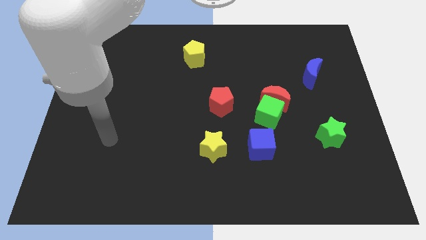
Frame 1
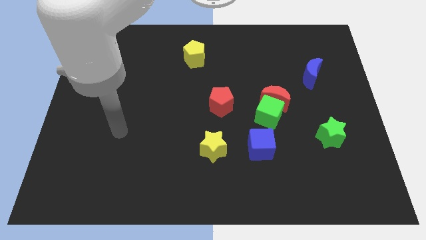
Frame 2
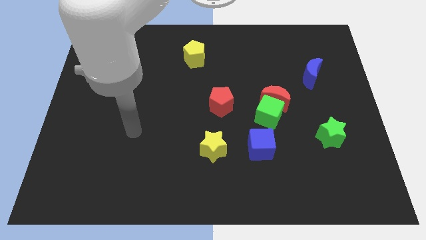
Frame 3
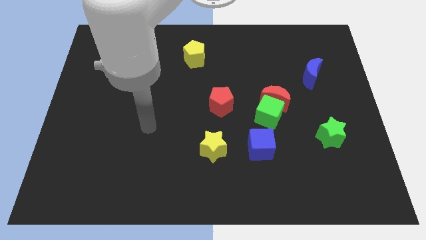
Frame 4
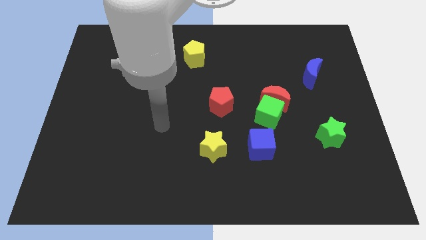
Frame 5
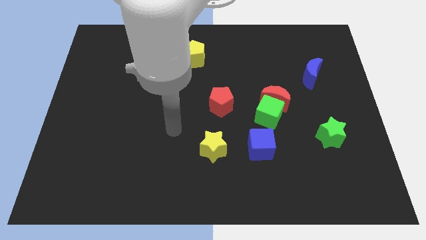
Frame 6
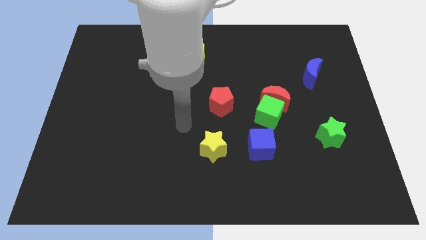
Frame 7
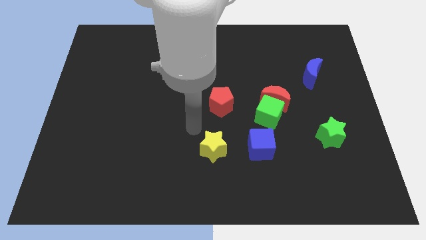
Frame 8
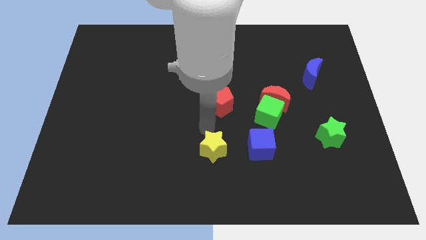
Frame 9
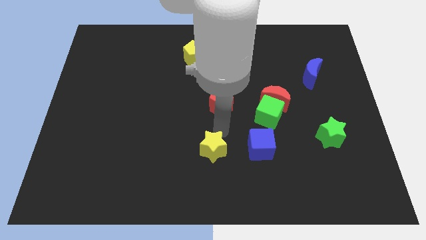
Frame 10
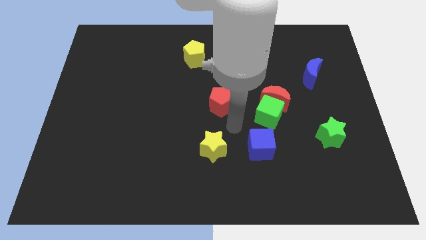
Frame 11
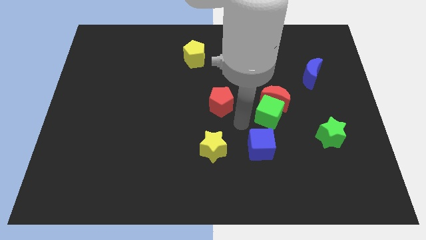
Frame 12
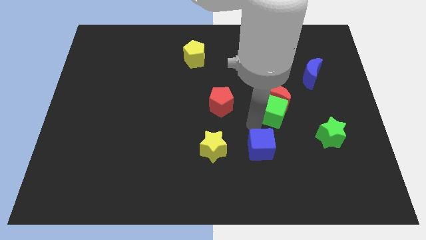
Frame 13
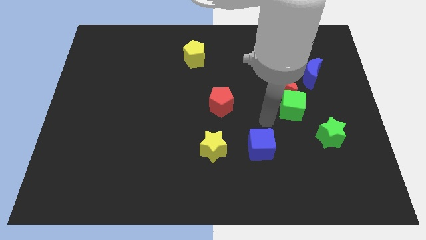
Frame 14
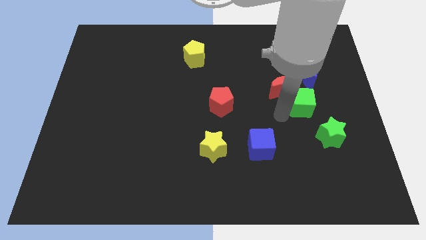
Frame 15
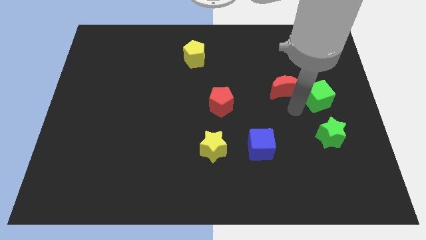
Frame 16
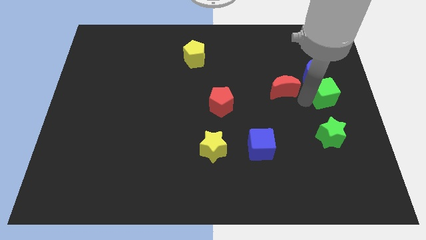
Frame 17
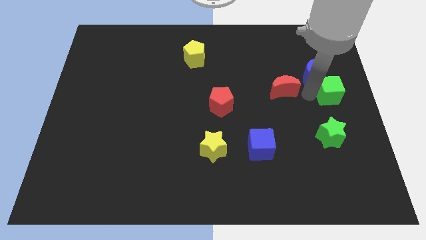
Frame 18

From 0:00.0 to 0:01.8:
separate the red moon from the green cube

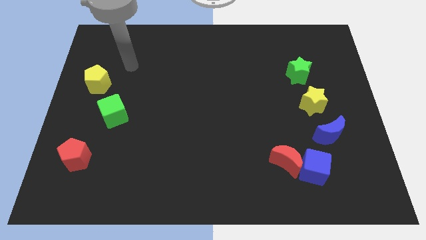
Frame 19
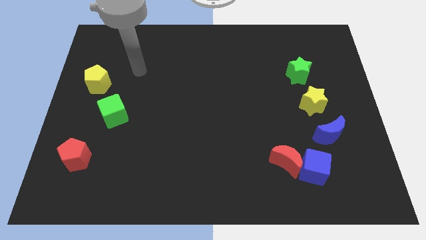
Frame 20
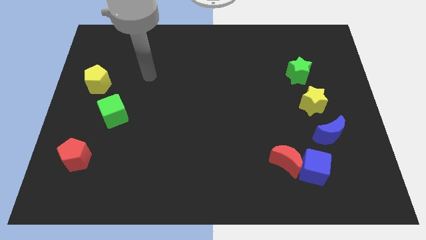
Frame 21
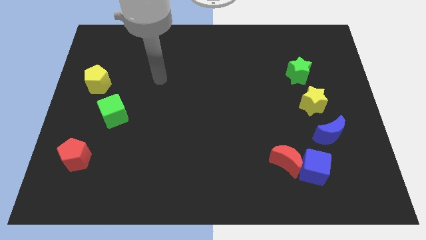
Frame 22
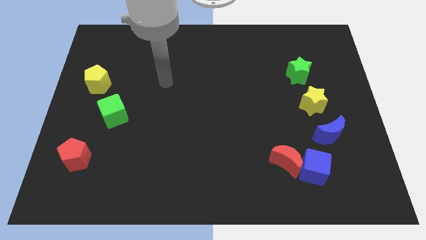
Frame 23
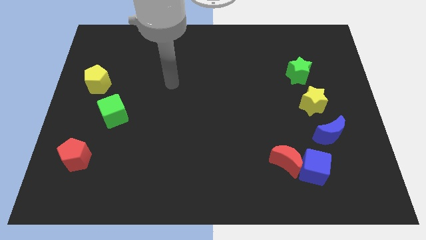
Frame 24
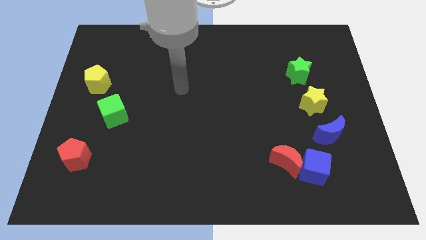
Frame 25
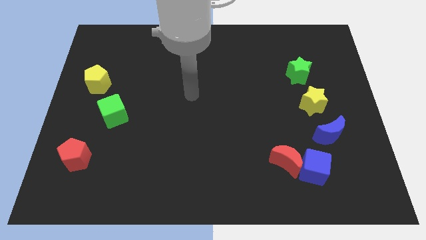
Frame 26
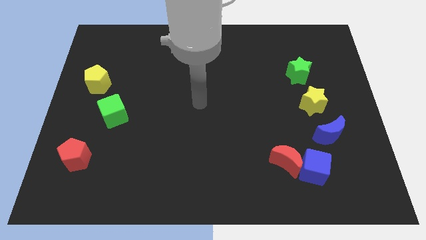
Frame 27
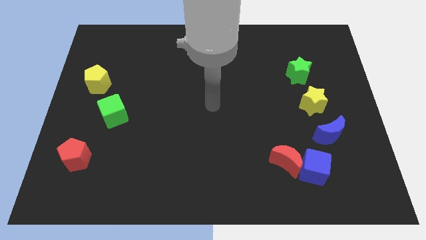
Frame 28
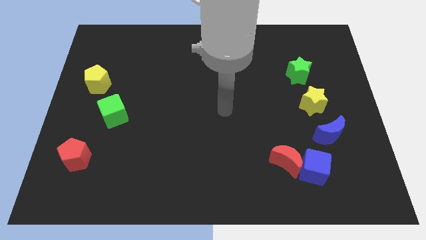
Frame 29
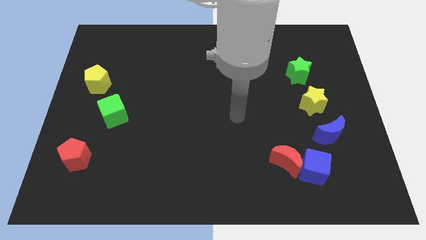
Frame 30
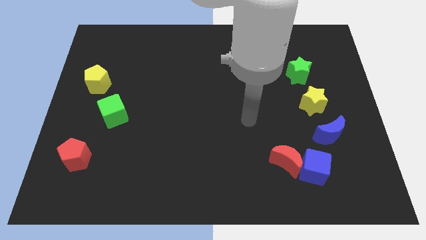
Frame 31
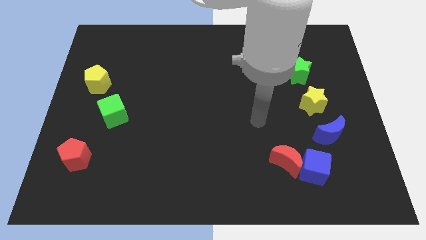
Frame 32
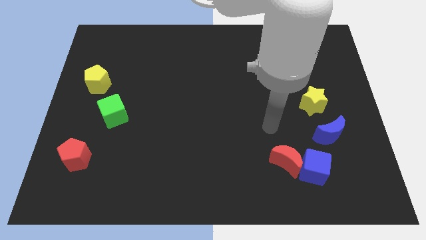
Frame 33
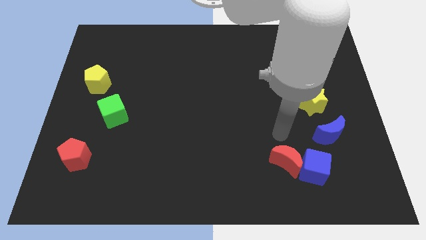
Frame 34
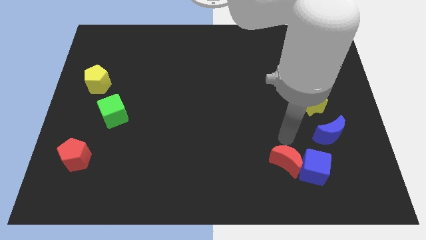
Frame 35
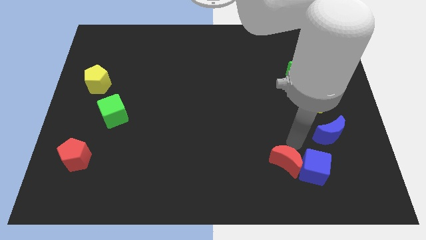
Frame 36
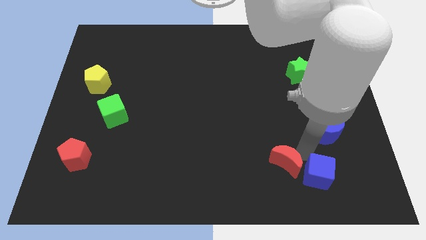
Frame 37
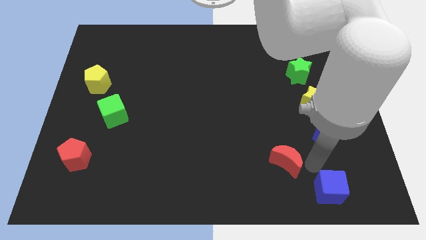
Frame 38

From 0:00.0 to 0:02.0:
pull the red moon apart from the blue cube

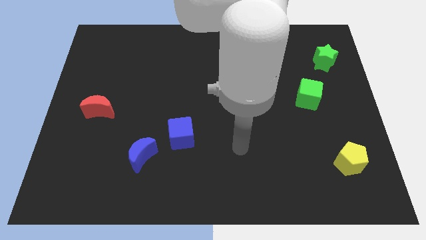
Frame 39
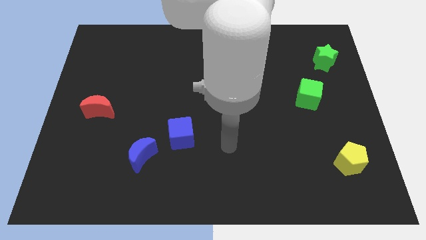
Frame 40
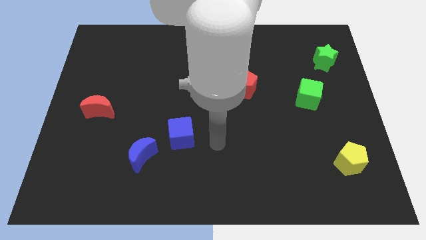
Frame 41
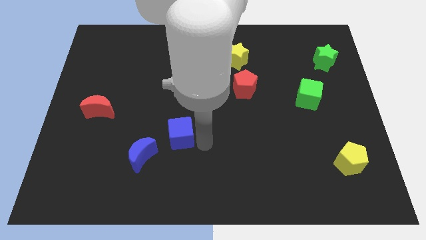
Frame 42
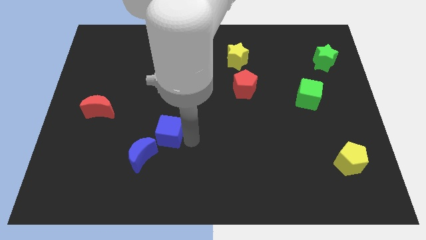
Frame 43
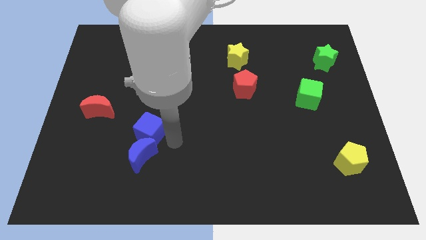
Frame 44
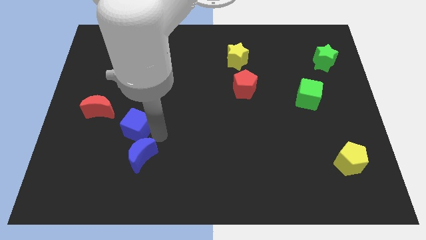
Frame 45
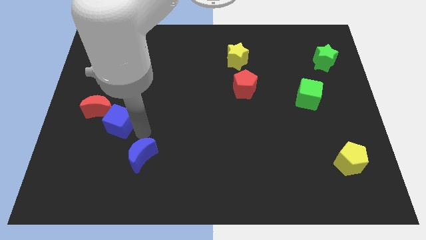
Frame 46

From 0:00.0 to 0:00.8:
move the blue moon away from the blue cube

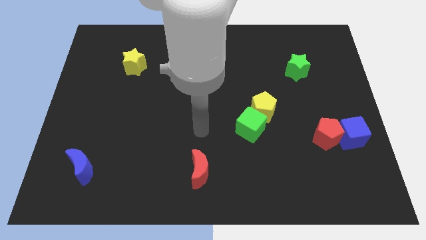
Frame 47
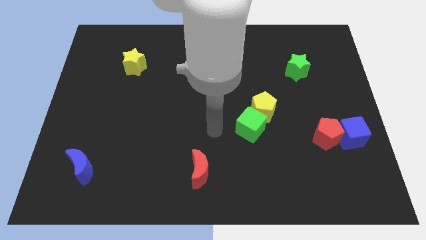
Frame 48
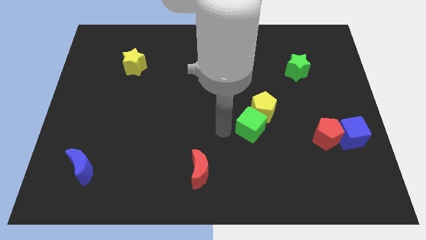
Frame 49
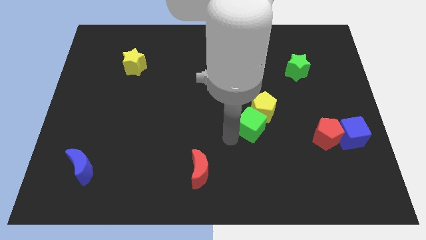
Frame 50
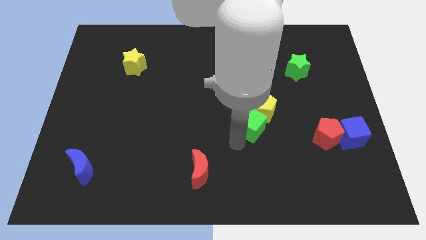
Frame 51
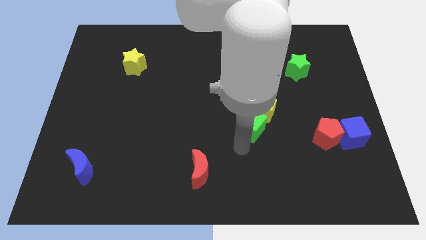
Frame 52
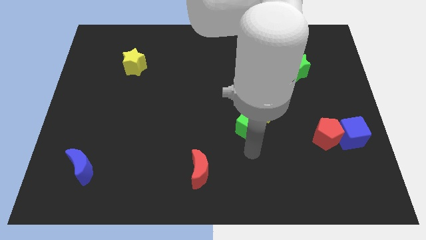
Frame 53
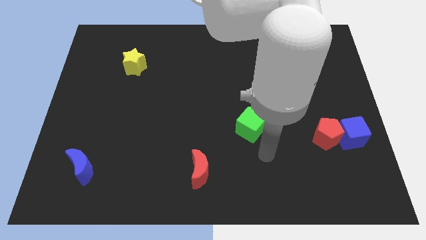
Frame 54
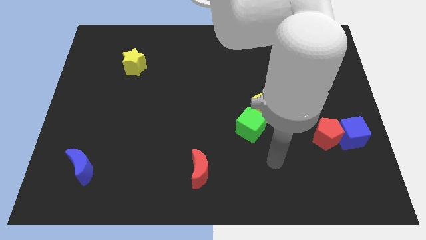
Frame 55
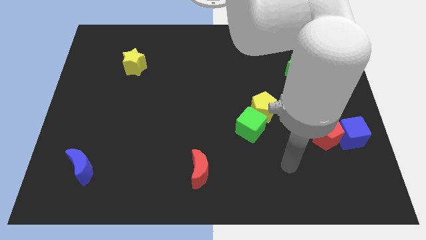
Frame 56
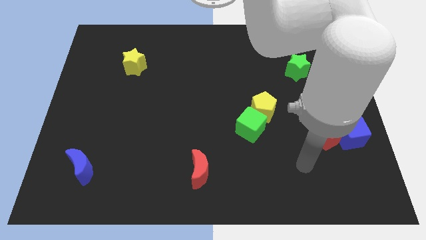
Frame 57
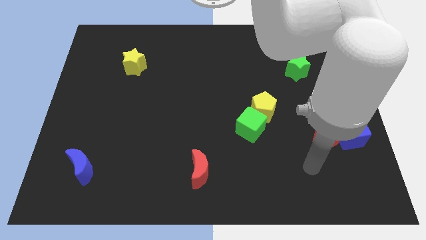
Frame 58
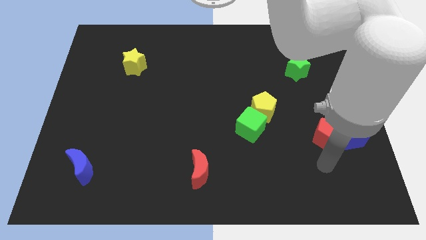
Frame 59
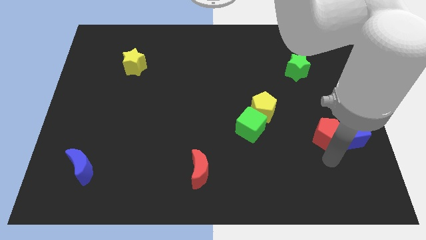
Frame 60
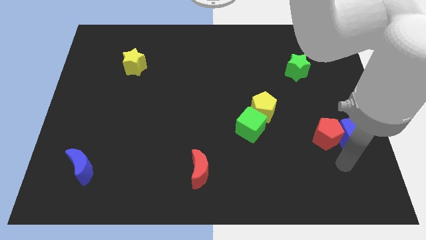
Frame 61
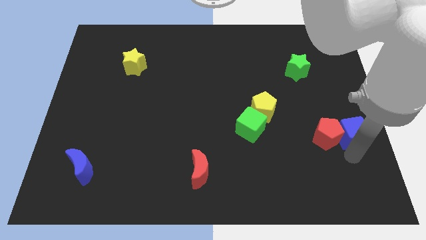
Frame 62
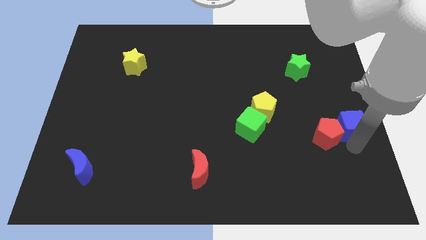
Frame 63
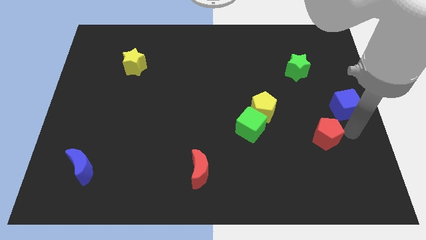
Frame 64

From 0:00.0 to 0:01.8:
pull the red pentagon apart from the blue cube

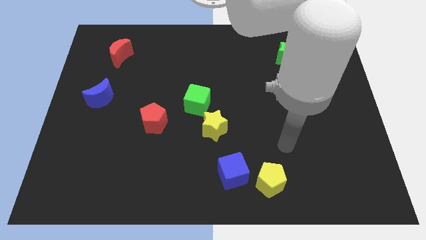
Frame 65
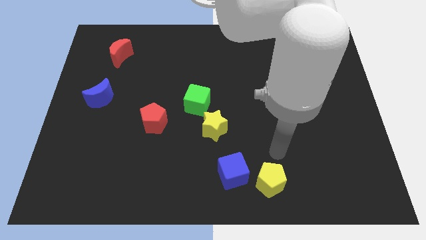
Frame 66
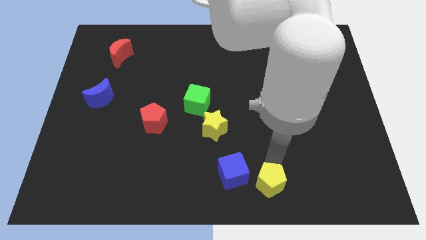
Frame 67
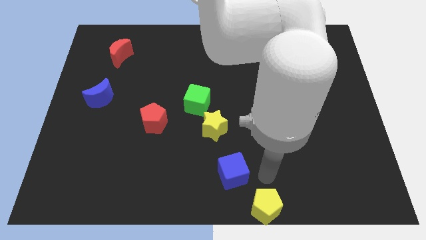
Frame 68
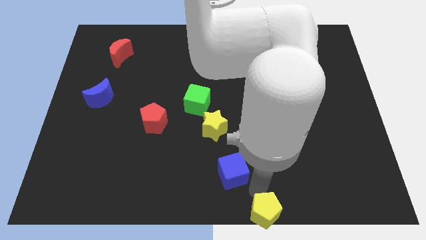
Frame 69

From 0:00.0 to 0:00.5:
move the blue cube away from the yellow pentagon

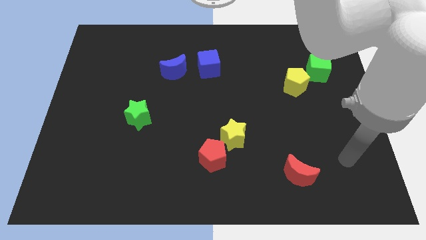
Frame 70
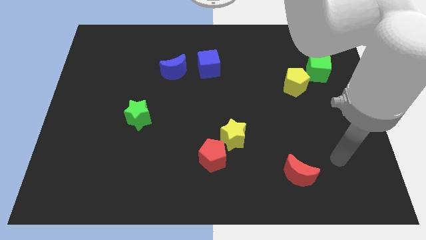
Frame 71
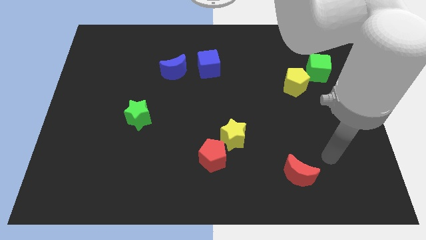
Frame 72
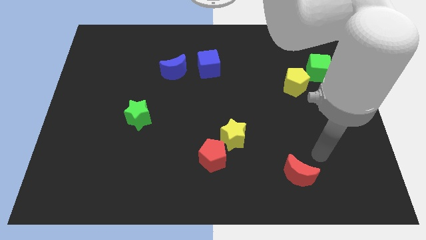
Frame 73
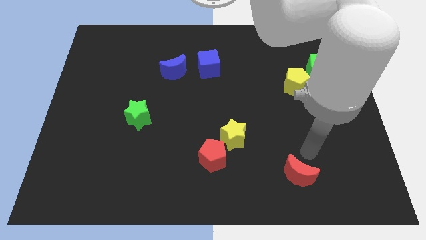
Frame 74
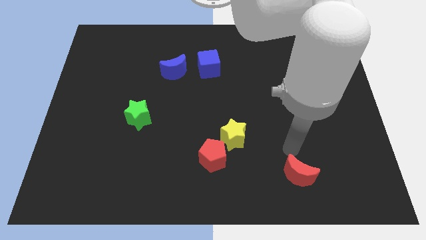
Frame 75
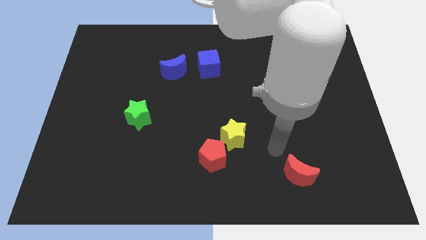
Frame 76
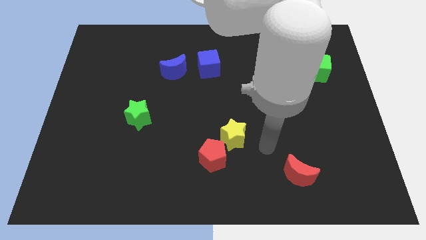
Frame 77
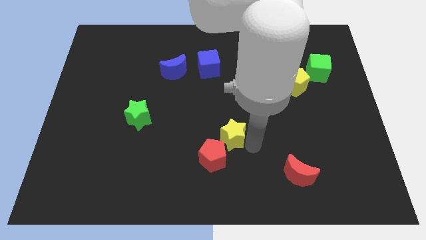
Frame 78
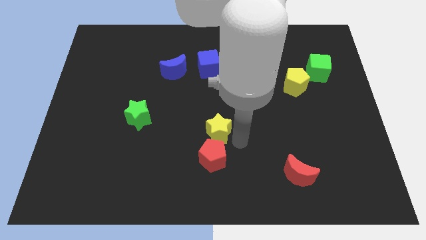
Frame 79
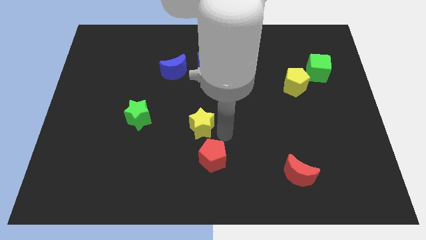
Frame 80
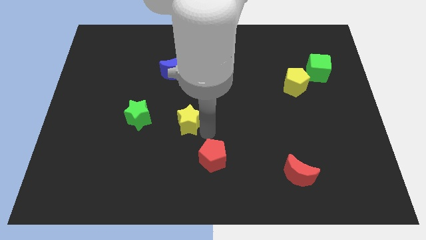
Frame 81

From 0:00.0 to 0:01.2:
separate the red pentagon from the yellow star

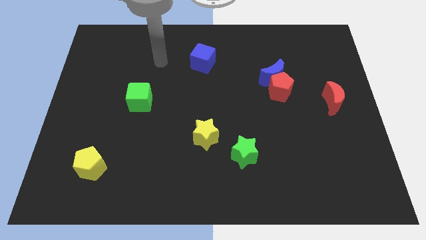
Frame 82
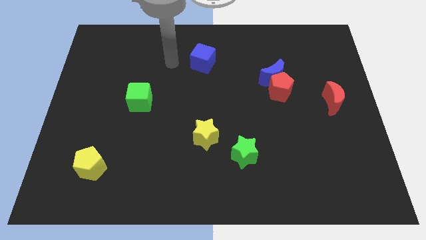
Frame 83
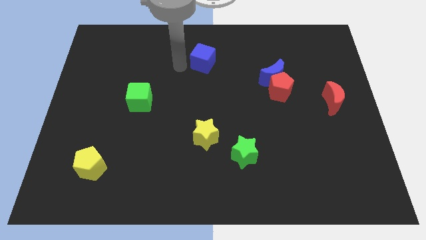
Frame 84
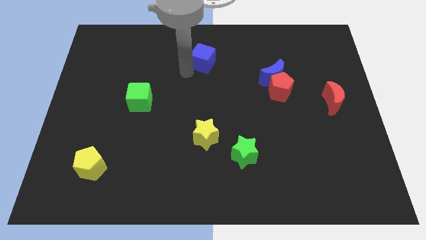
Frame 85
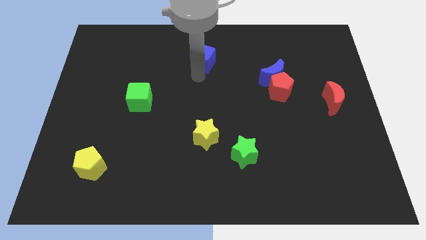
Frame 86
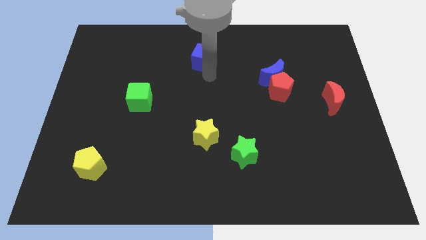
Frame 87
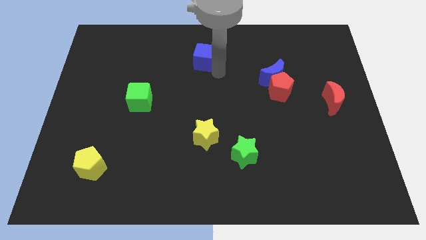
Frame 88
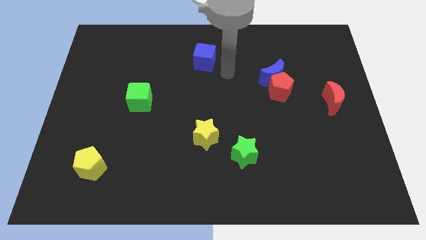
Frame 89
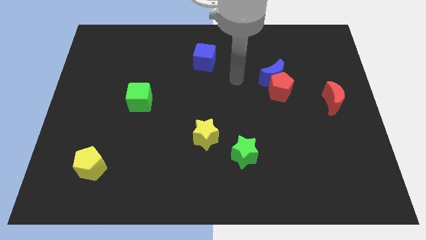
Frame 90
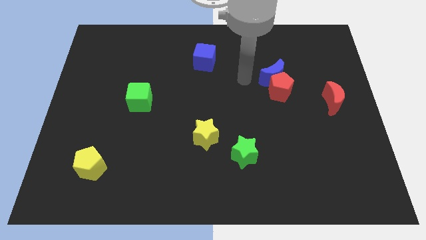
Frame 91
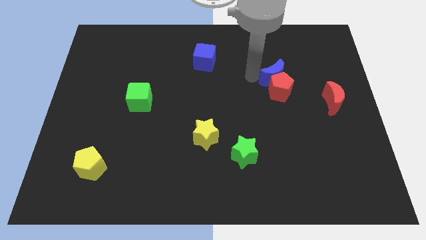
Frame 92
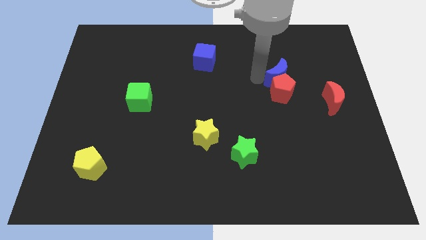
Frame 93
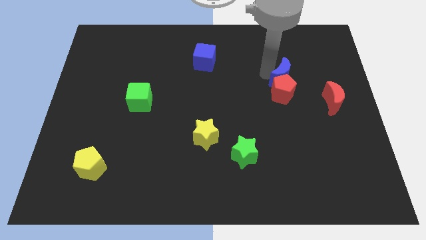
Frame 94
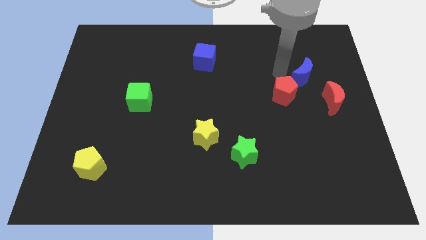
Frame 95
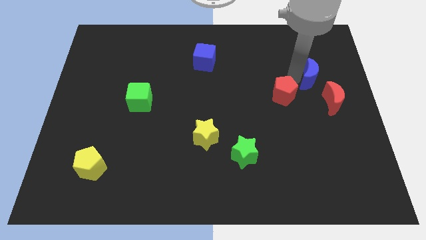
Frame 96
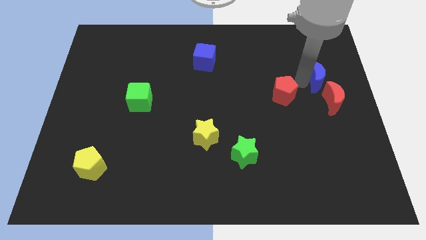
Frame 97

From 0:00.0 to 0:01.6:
separate the red pentagon from the blue moon
